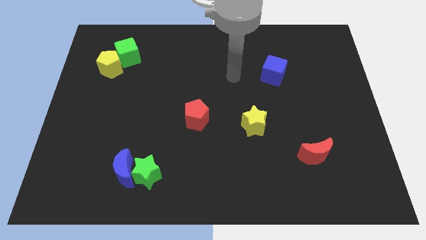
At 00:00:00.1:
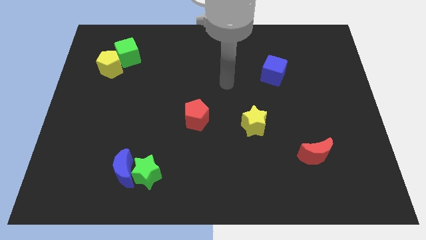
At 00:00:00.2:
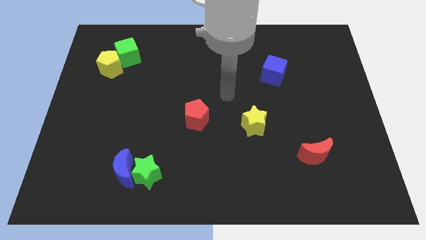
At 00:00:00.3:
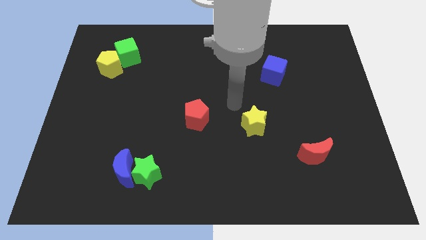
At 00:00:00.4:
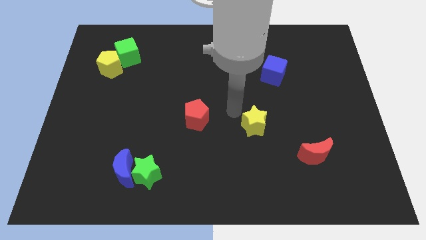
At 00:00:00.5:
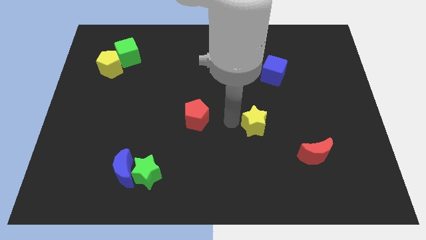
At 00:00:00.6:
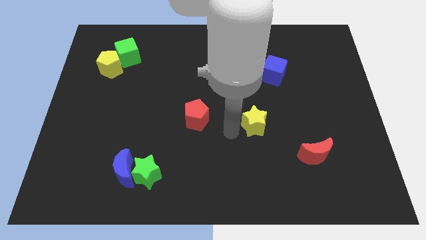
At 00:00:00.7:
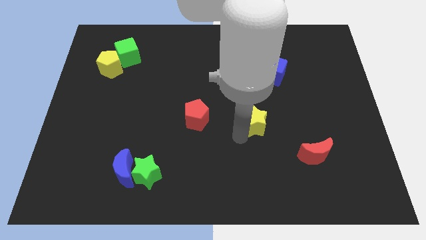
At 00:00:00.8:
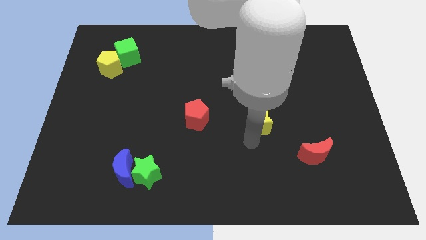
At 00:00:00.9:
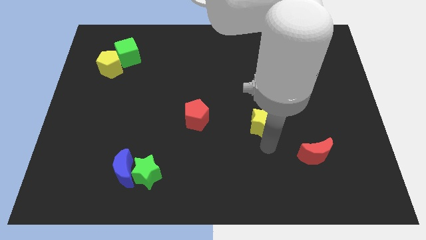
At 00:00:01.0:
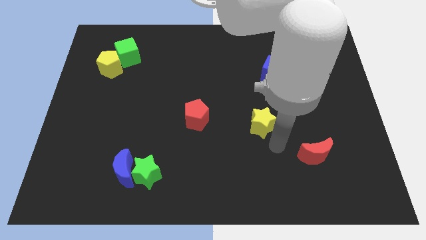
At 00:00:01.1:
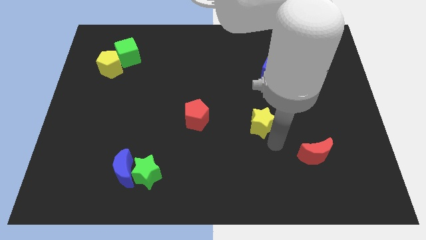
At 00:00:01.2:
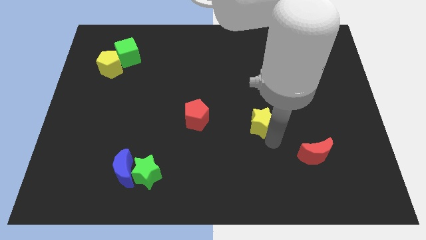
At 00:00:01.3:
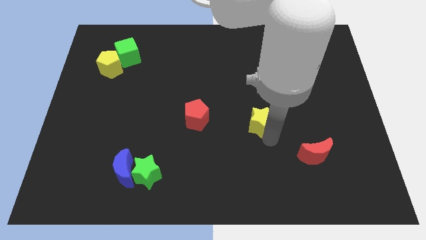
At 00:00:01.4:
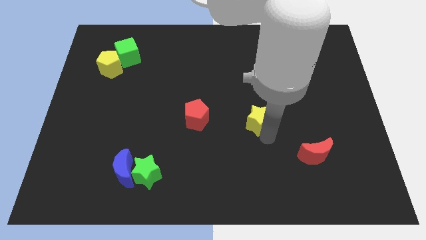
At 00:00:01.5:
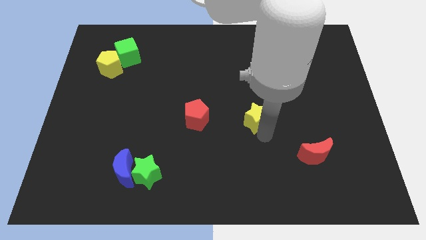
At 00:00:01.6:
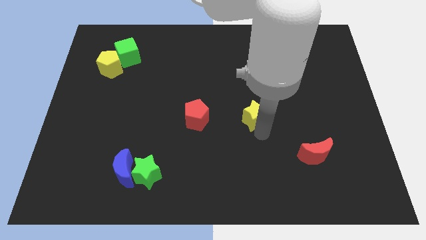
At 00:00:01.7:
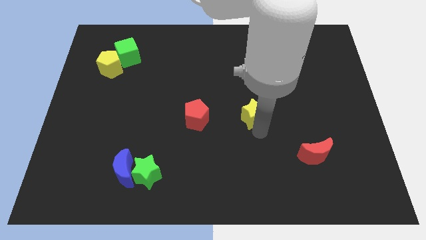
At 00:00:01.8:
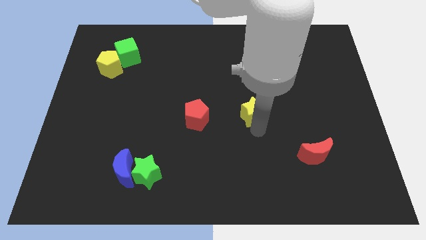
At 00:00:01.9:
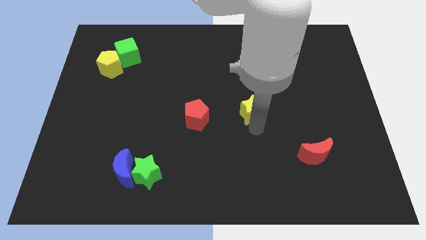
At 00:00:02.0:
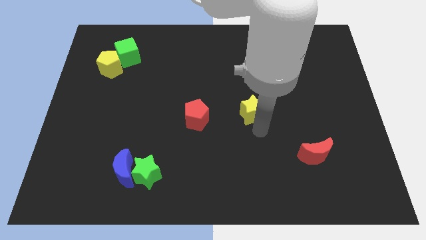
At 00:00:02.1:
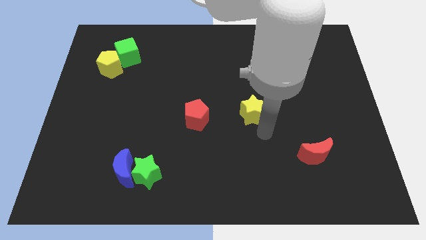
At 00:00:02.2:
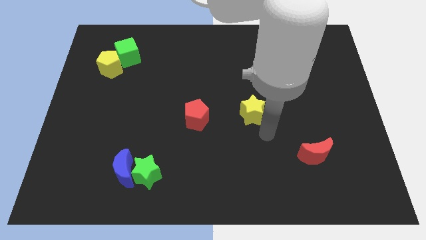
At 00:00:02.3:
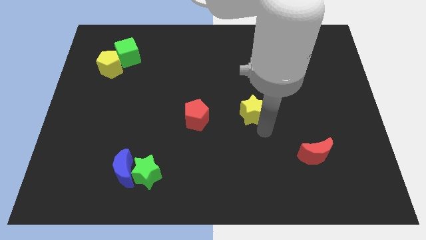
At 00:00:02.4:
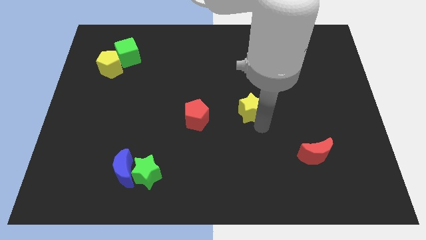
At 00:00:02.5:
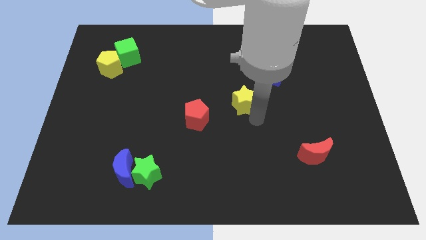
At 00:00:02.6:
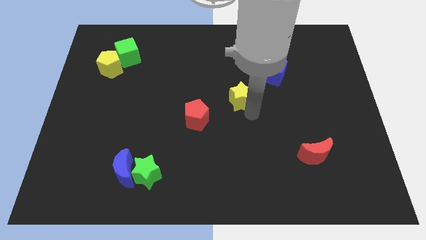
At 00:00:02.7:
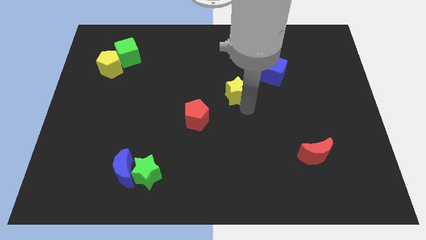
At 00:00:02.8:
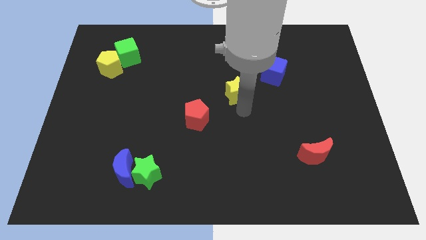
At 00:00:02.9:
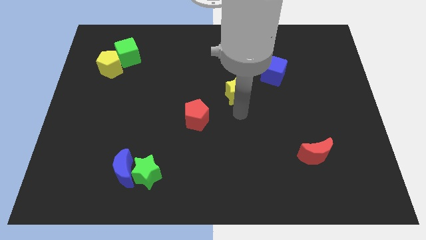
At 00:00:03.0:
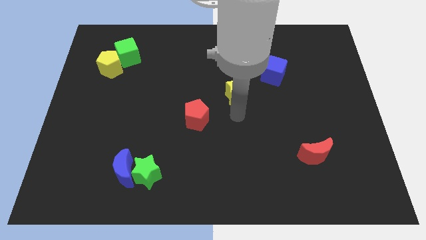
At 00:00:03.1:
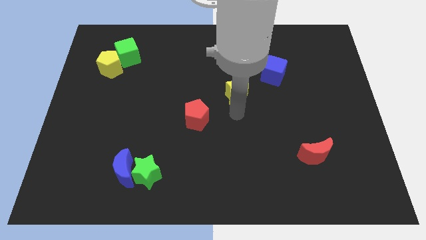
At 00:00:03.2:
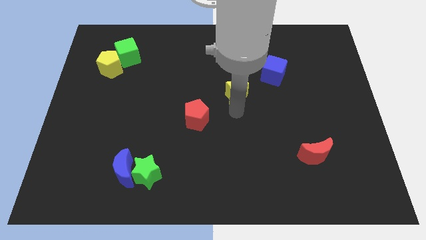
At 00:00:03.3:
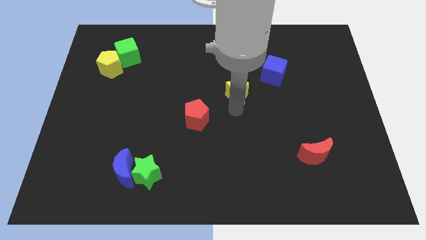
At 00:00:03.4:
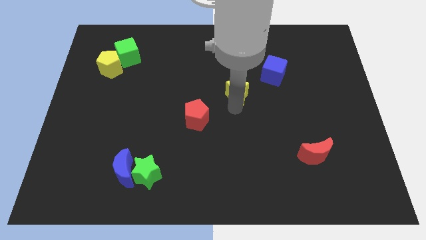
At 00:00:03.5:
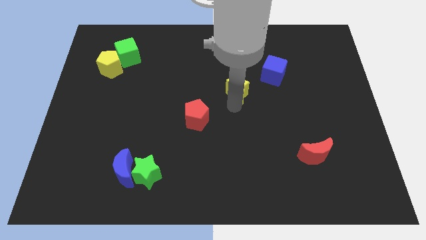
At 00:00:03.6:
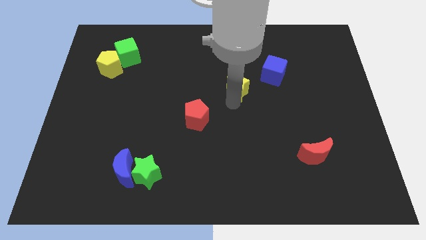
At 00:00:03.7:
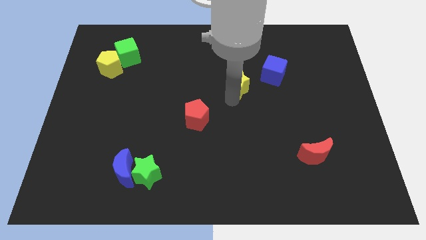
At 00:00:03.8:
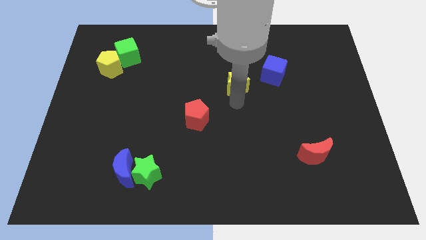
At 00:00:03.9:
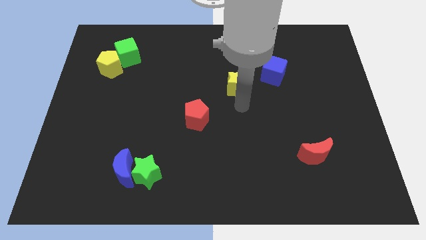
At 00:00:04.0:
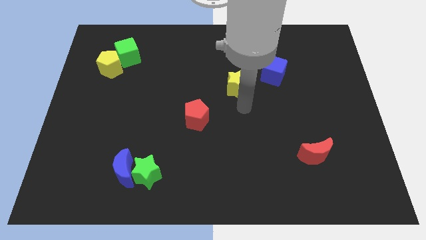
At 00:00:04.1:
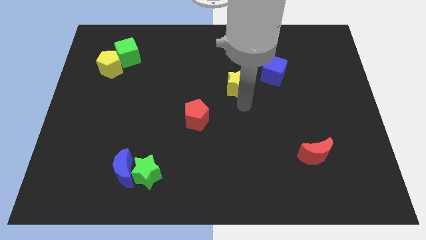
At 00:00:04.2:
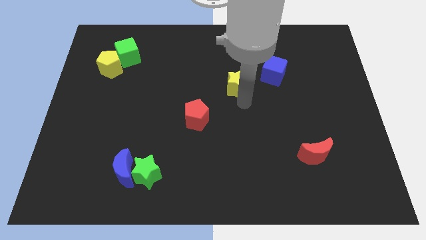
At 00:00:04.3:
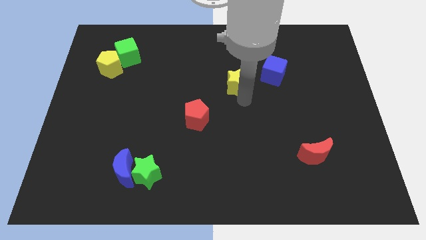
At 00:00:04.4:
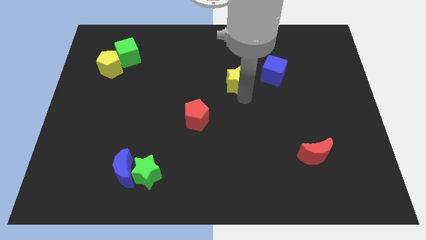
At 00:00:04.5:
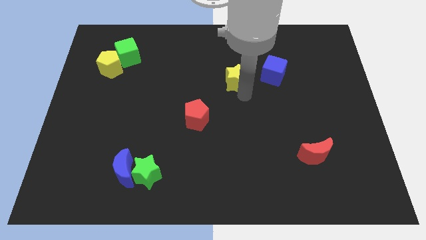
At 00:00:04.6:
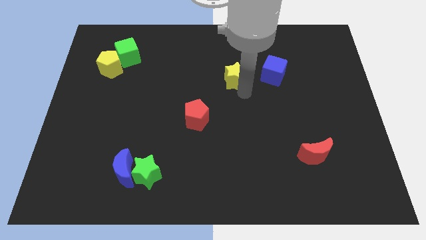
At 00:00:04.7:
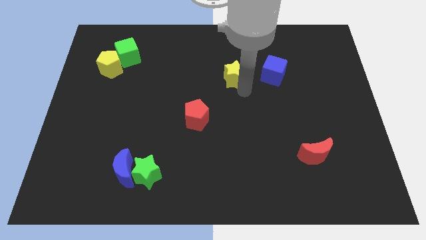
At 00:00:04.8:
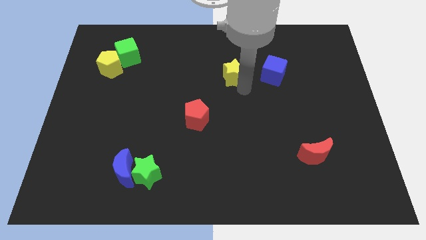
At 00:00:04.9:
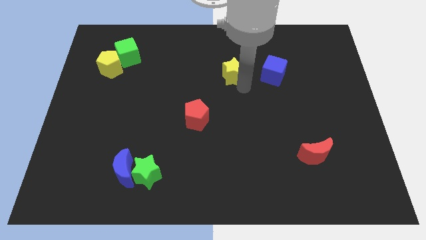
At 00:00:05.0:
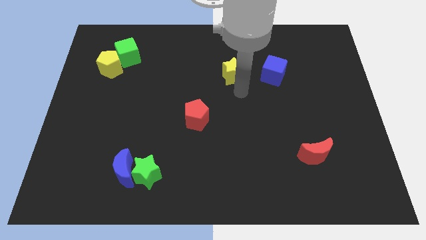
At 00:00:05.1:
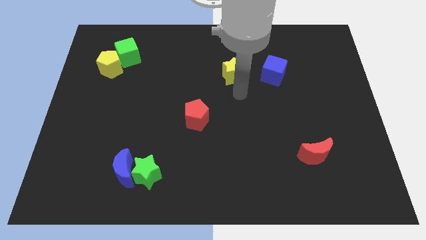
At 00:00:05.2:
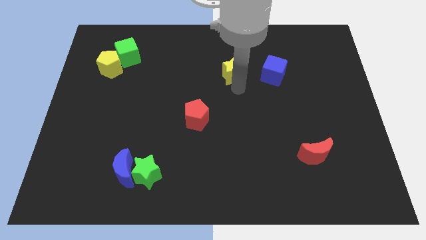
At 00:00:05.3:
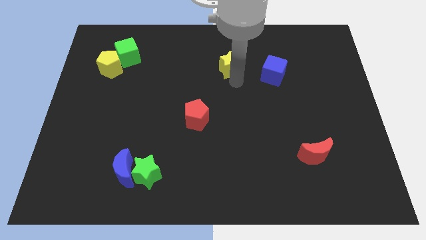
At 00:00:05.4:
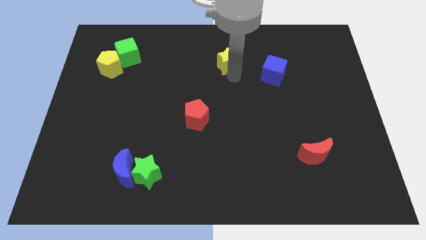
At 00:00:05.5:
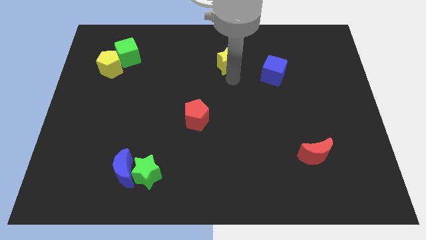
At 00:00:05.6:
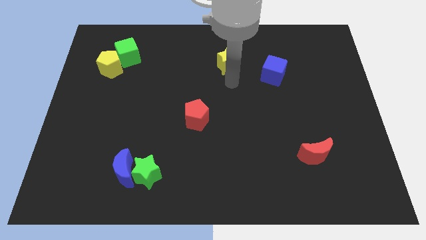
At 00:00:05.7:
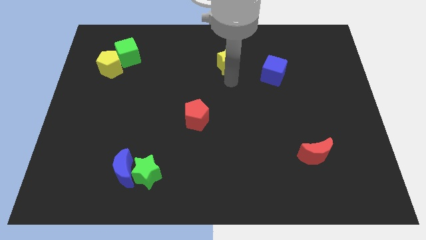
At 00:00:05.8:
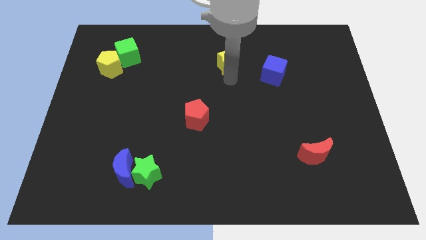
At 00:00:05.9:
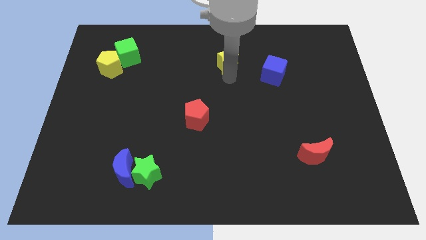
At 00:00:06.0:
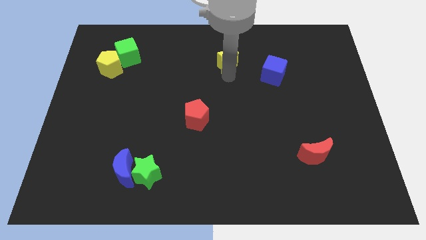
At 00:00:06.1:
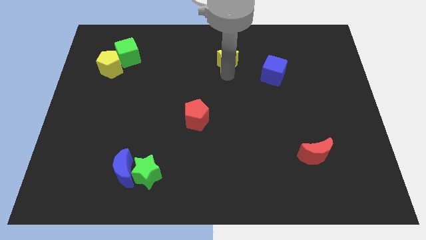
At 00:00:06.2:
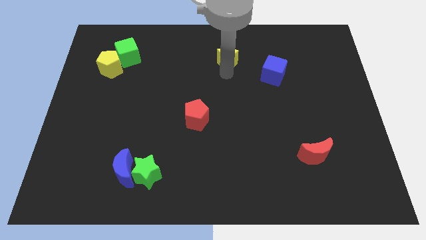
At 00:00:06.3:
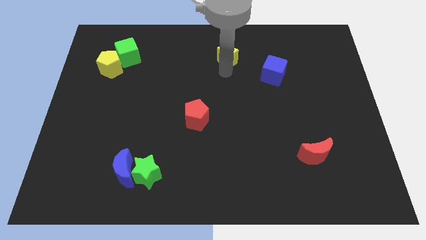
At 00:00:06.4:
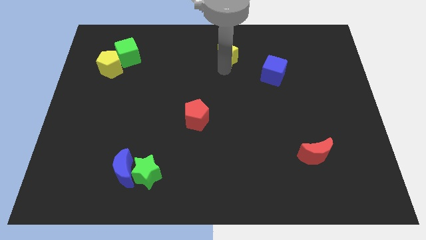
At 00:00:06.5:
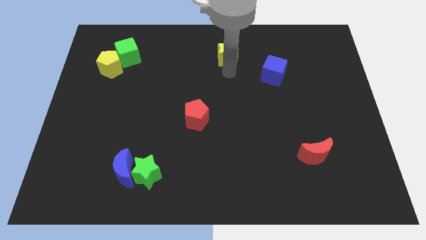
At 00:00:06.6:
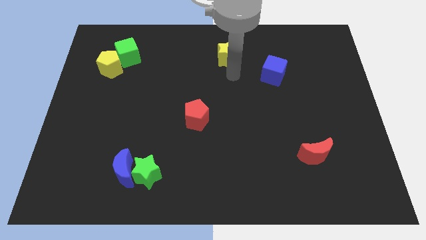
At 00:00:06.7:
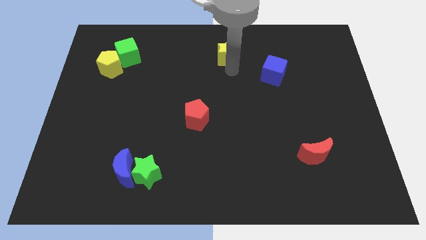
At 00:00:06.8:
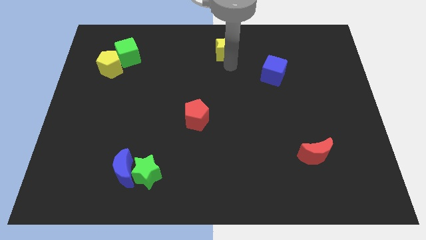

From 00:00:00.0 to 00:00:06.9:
move the yellow star to the top
